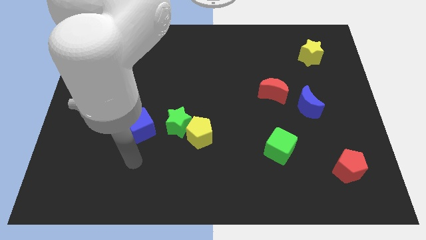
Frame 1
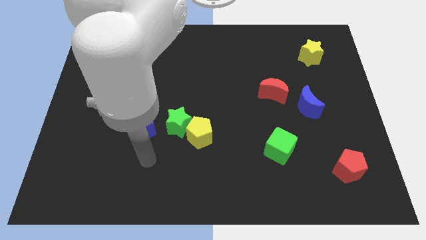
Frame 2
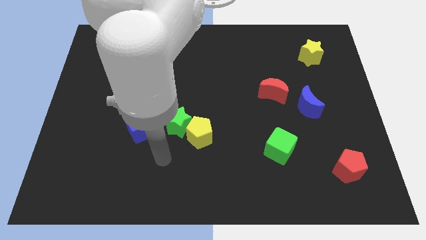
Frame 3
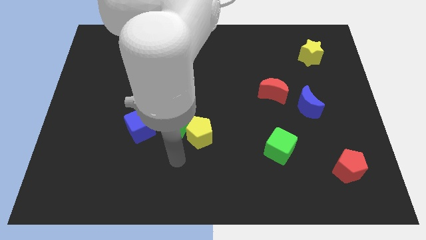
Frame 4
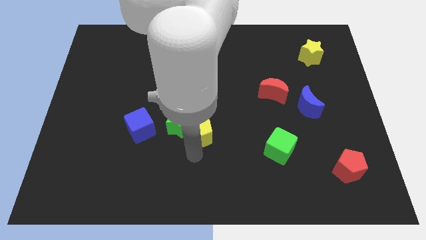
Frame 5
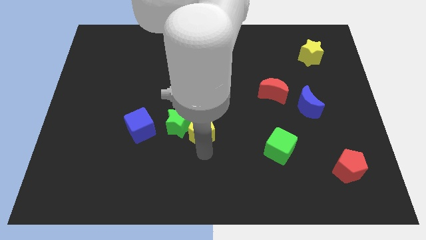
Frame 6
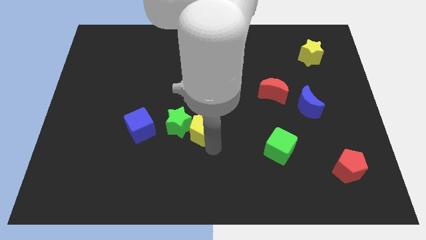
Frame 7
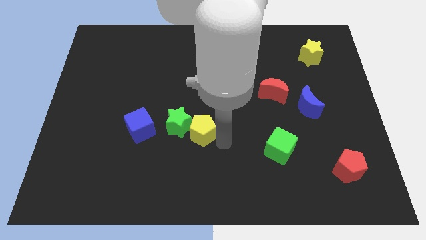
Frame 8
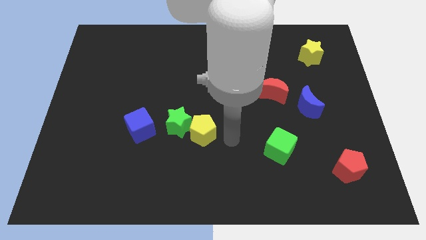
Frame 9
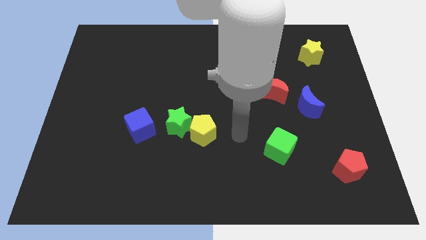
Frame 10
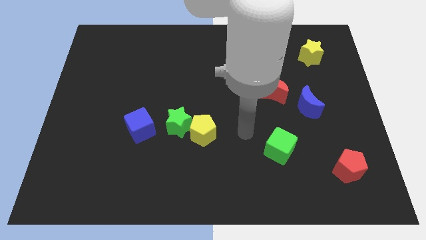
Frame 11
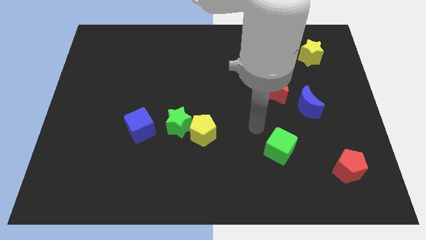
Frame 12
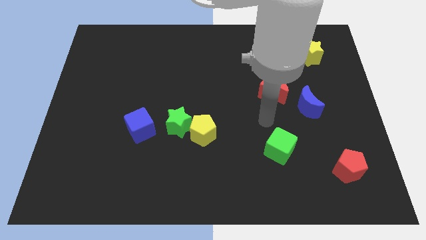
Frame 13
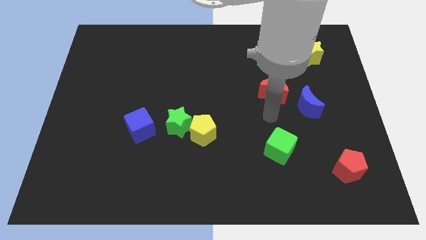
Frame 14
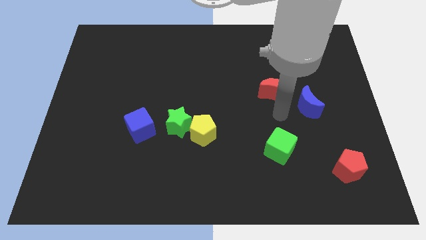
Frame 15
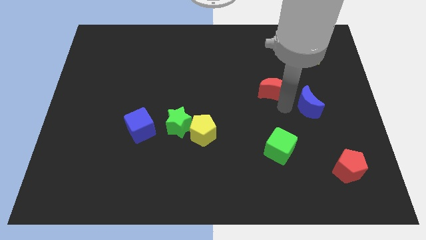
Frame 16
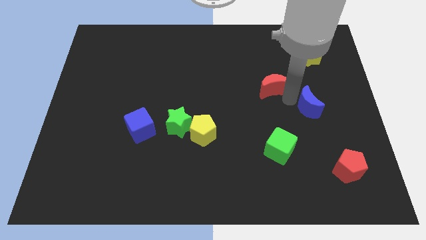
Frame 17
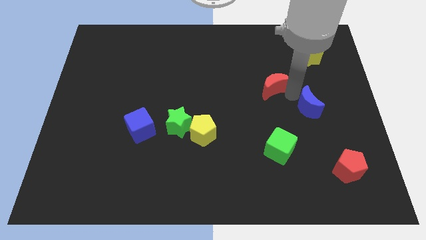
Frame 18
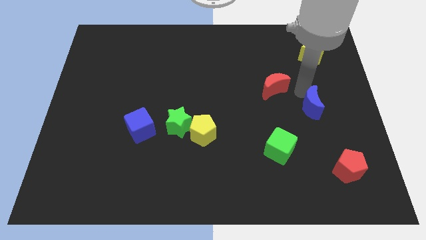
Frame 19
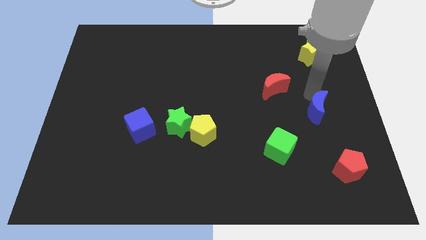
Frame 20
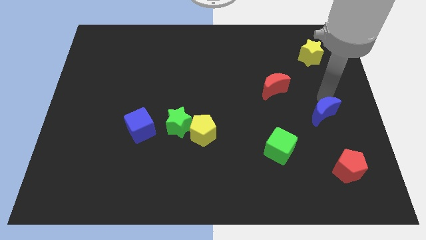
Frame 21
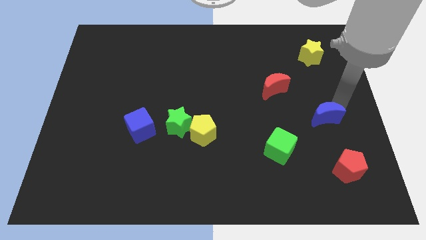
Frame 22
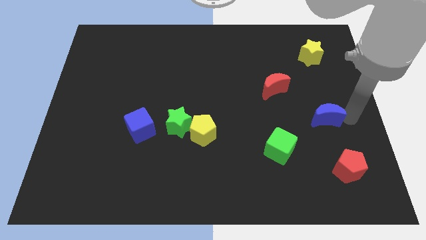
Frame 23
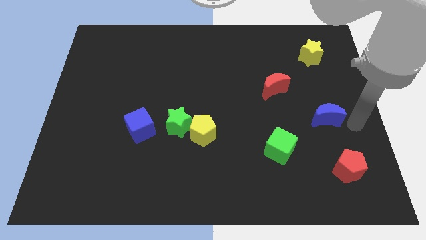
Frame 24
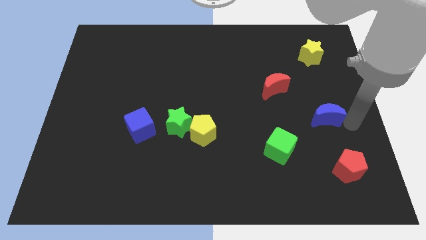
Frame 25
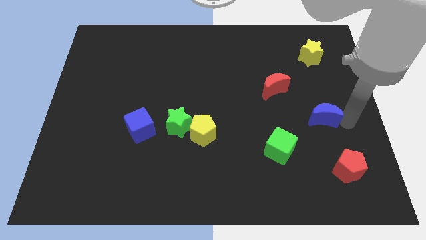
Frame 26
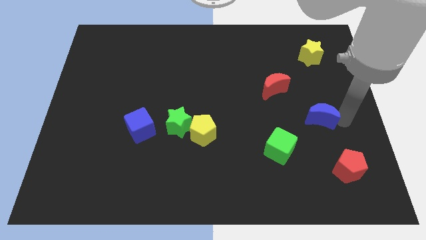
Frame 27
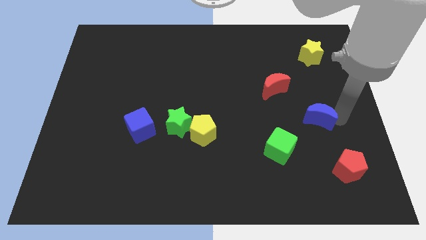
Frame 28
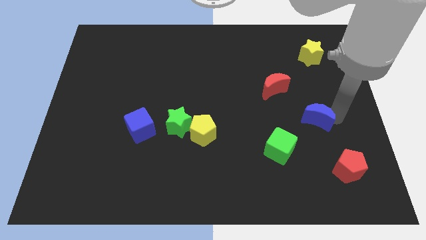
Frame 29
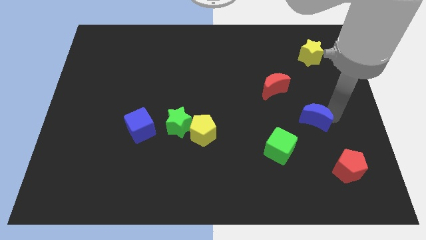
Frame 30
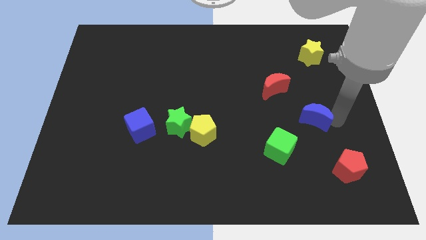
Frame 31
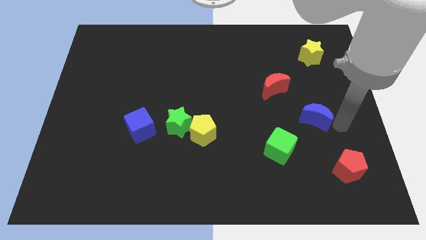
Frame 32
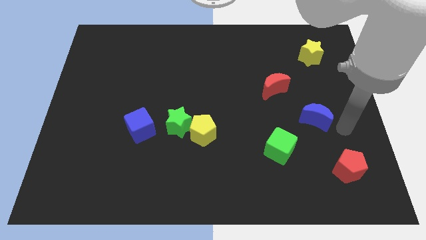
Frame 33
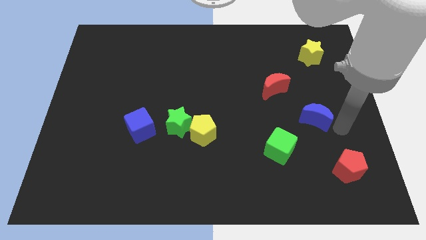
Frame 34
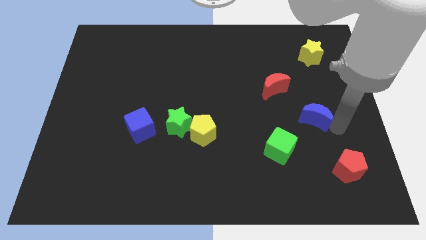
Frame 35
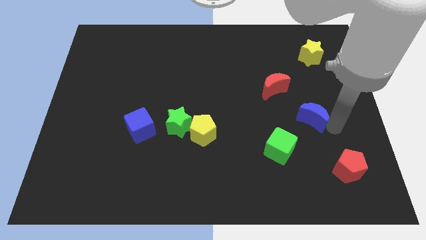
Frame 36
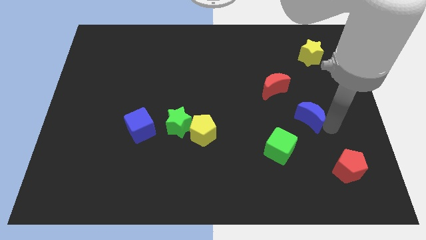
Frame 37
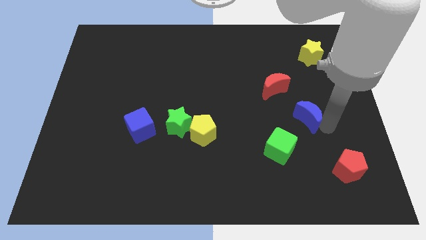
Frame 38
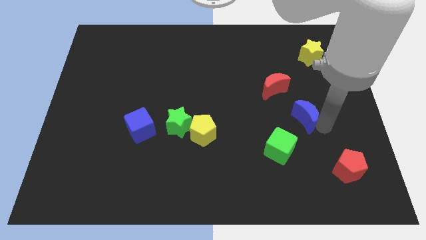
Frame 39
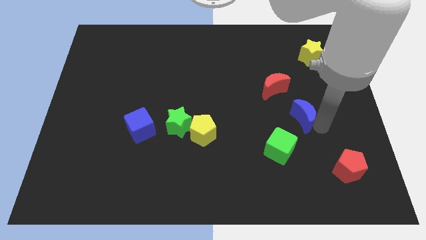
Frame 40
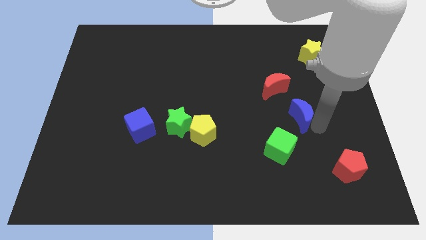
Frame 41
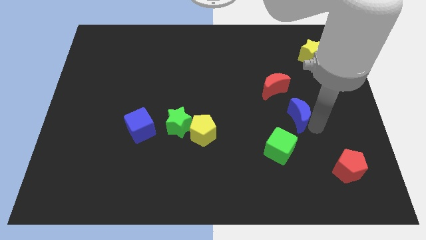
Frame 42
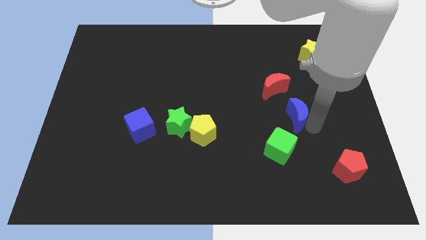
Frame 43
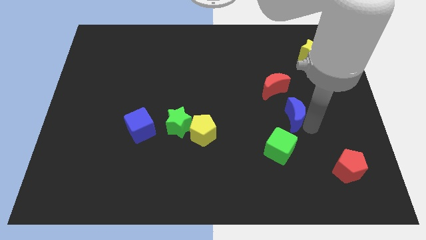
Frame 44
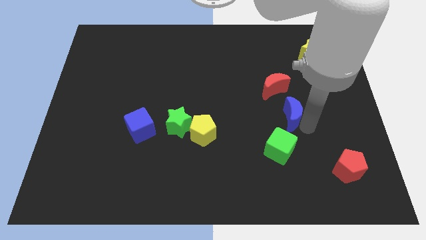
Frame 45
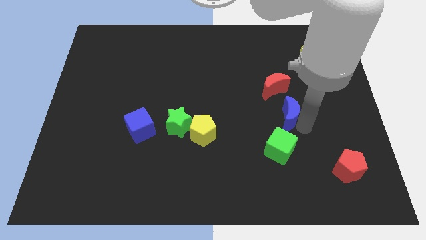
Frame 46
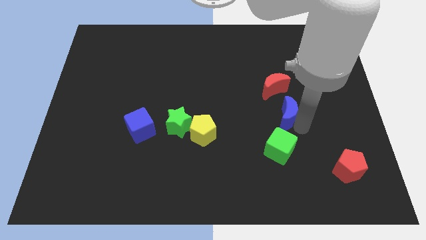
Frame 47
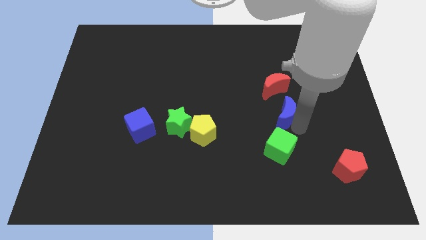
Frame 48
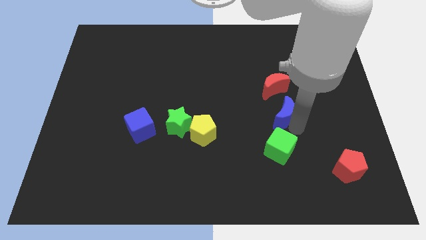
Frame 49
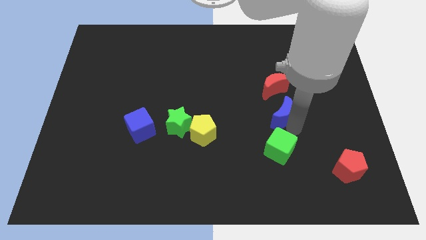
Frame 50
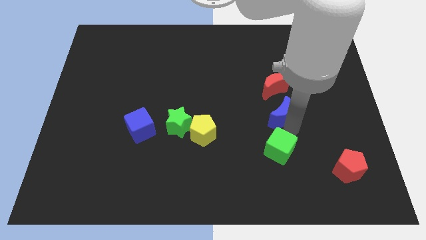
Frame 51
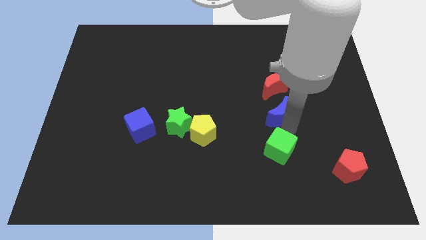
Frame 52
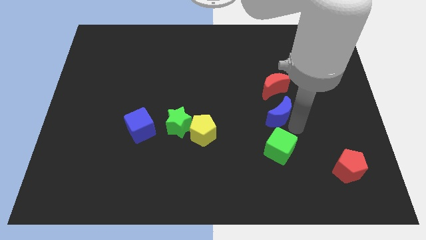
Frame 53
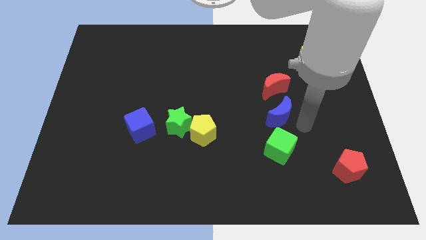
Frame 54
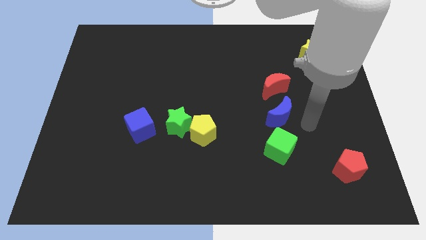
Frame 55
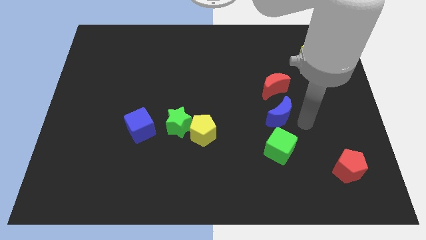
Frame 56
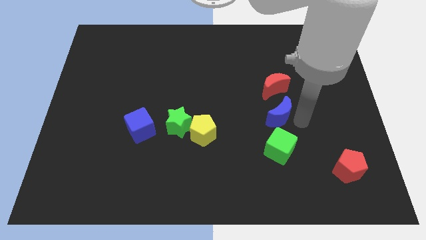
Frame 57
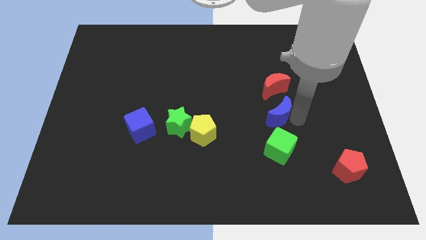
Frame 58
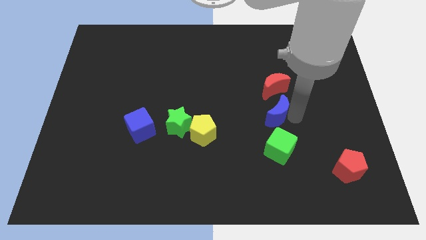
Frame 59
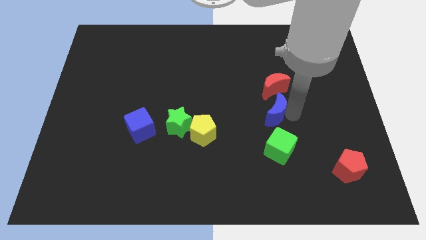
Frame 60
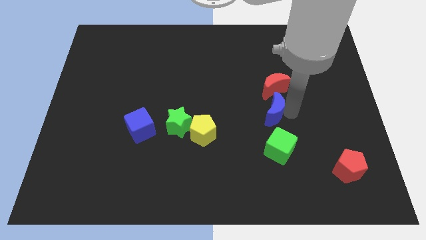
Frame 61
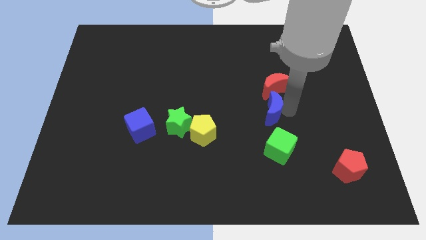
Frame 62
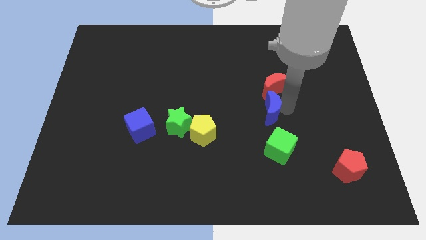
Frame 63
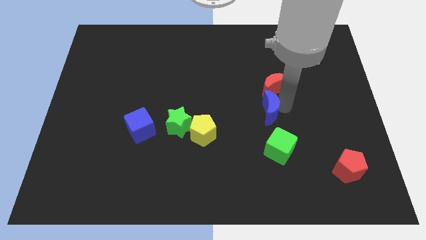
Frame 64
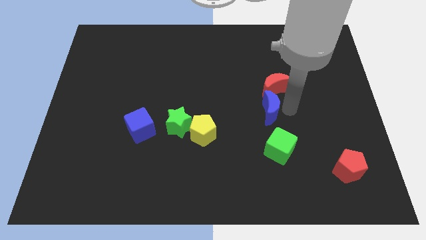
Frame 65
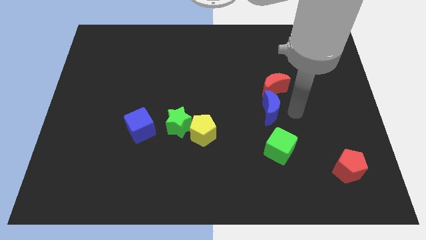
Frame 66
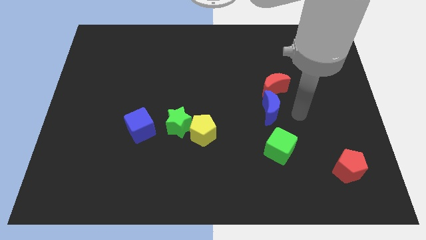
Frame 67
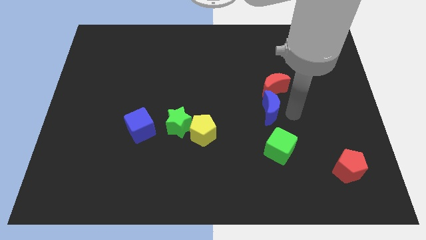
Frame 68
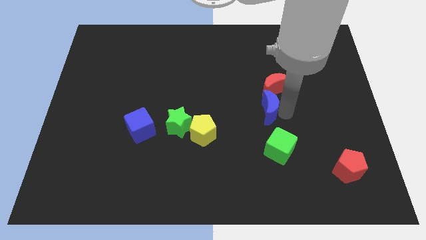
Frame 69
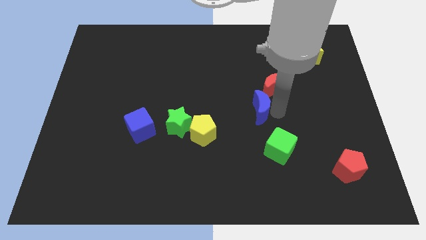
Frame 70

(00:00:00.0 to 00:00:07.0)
push the blue moon to the middle
